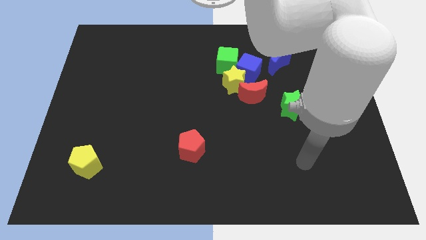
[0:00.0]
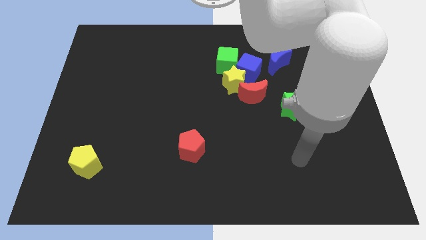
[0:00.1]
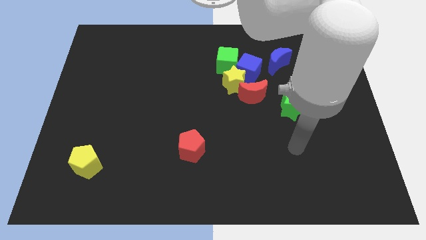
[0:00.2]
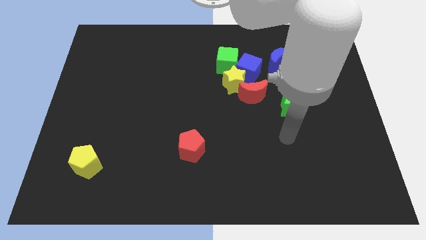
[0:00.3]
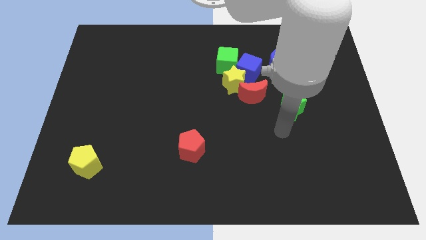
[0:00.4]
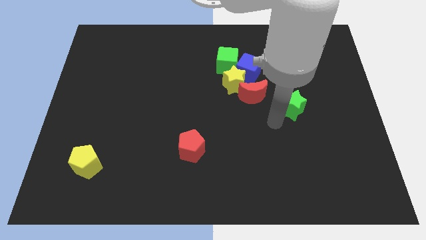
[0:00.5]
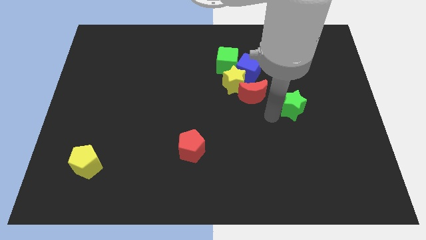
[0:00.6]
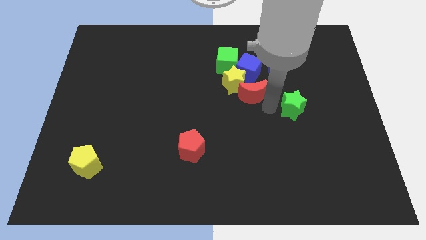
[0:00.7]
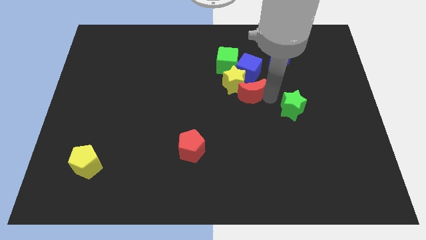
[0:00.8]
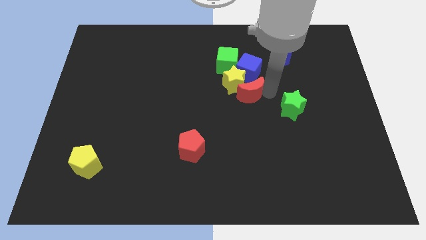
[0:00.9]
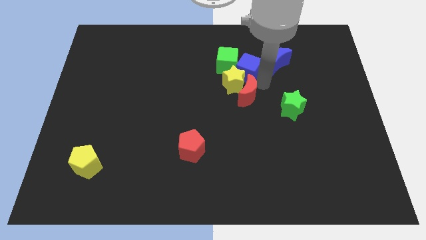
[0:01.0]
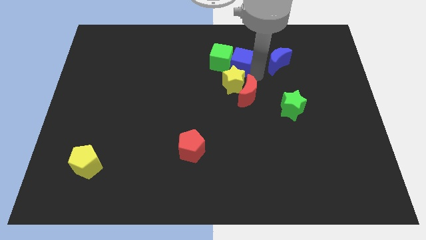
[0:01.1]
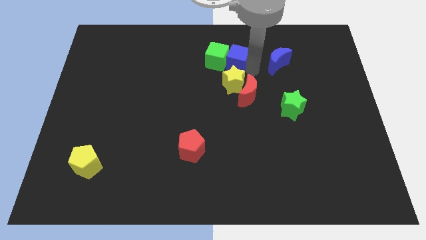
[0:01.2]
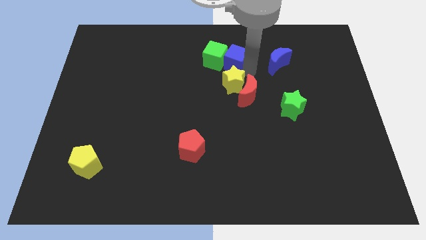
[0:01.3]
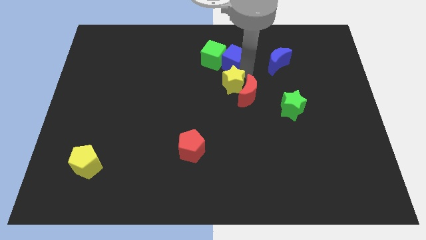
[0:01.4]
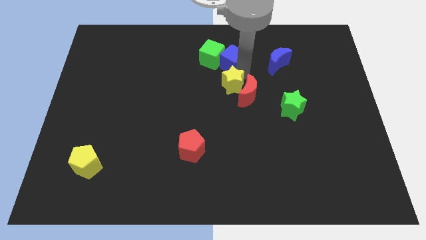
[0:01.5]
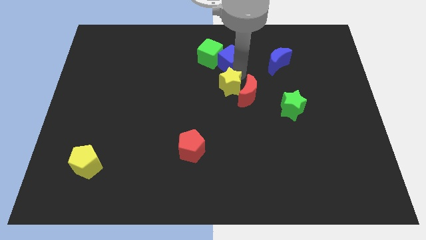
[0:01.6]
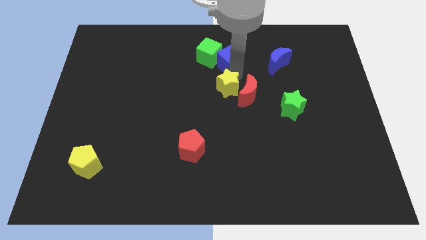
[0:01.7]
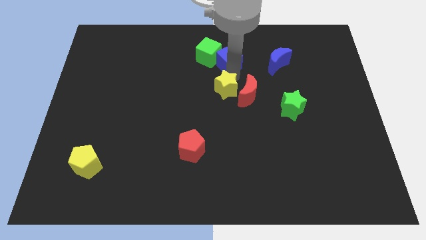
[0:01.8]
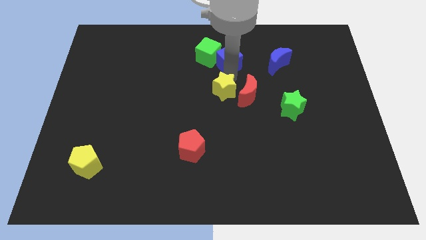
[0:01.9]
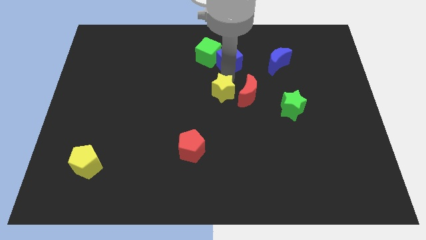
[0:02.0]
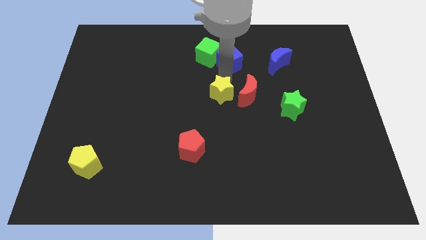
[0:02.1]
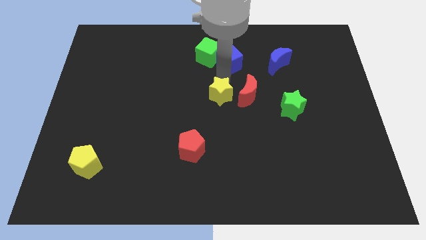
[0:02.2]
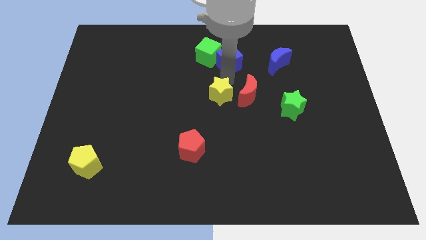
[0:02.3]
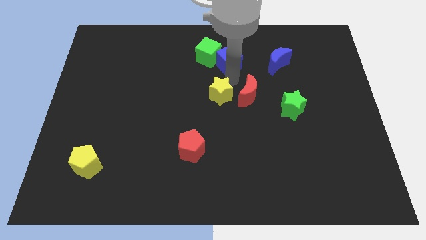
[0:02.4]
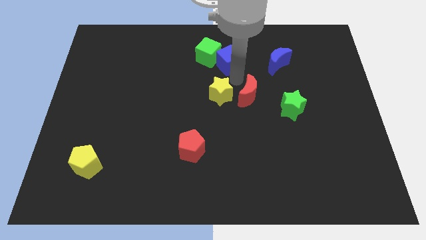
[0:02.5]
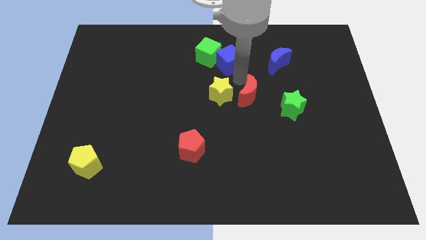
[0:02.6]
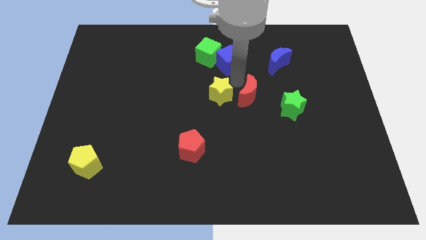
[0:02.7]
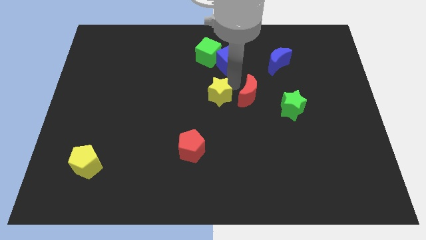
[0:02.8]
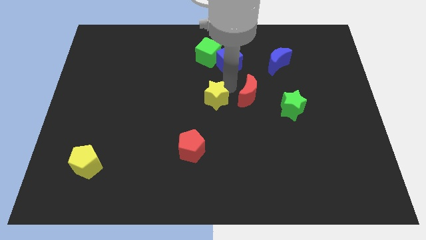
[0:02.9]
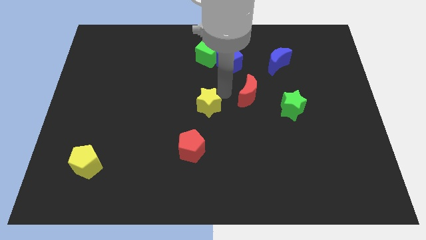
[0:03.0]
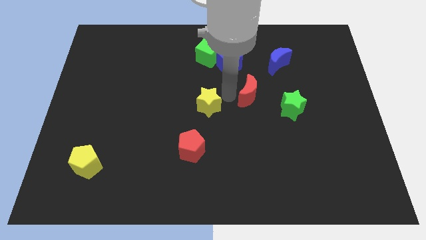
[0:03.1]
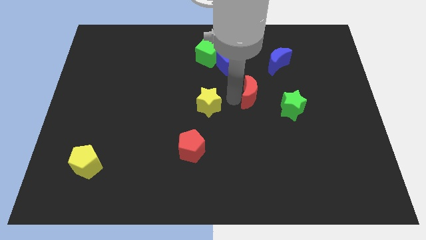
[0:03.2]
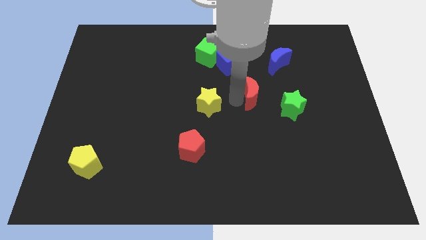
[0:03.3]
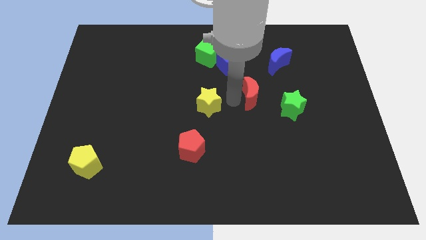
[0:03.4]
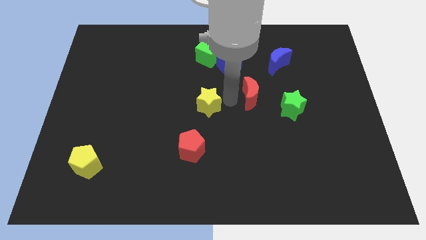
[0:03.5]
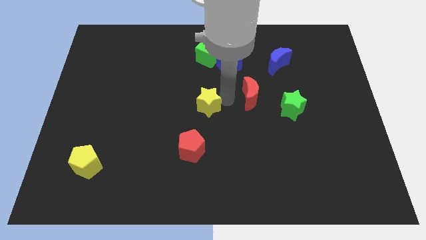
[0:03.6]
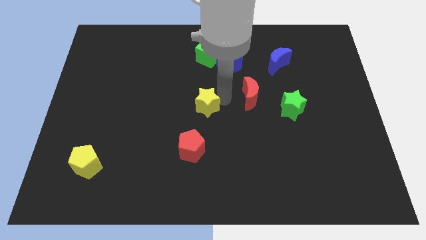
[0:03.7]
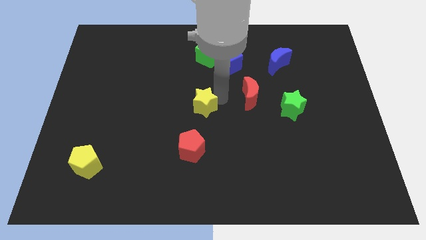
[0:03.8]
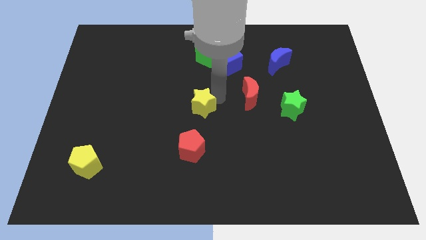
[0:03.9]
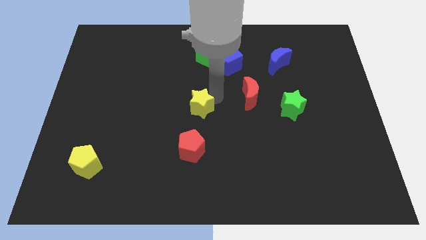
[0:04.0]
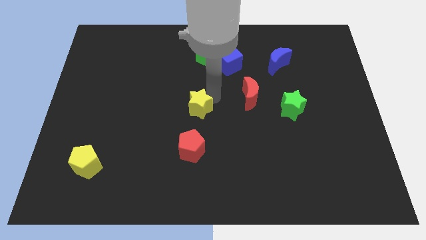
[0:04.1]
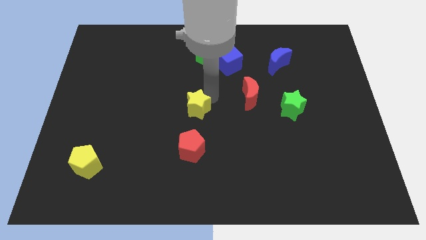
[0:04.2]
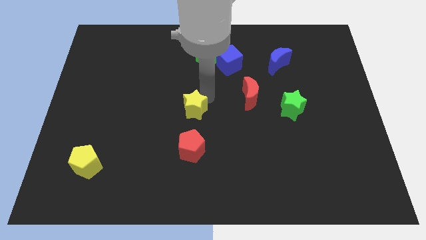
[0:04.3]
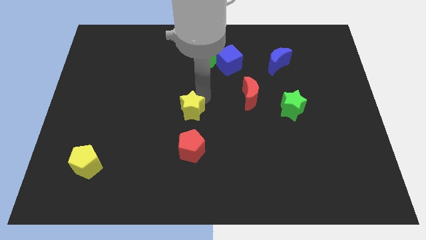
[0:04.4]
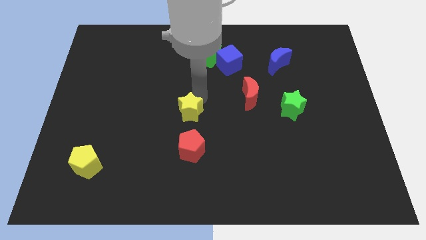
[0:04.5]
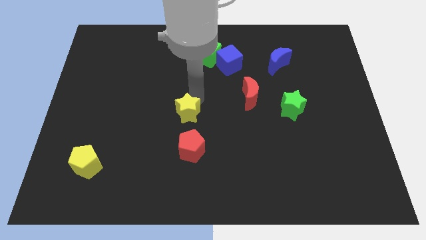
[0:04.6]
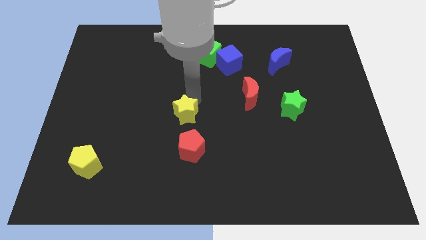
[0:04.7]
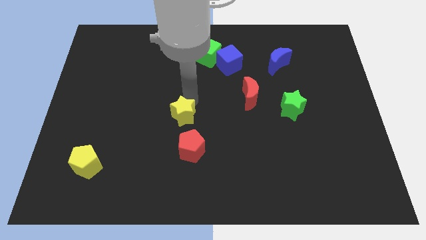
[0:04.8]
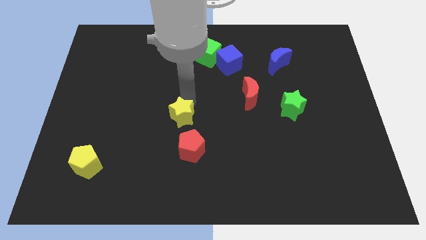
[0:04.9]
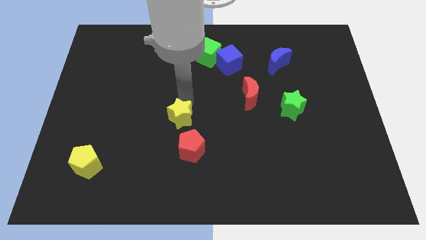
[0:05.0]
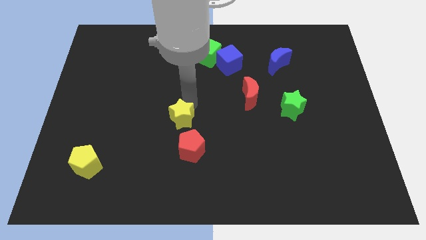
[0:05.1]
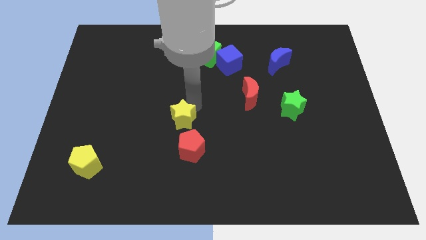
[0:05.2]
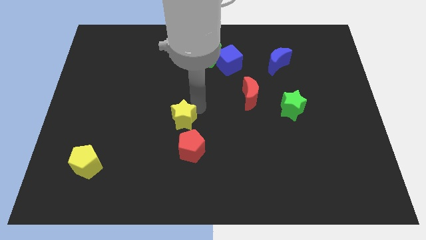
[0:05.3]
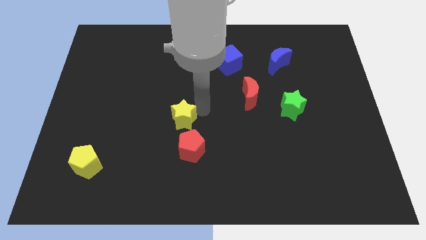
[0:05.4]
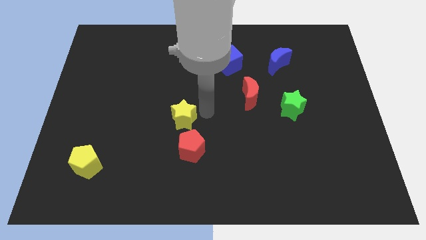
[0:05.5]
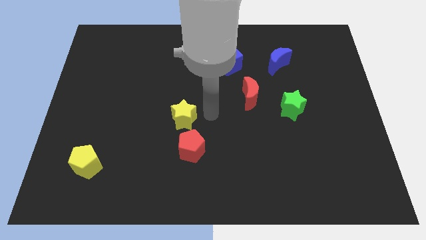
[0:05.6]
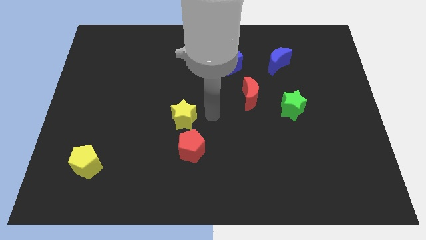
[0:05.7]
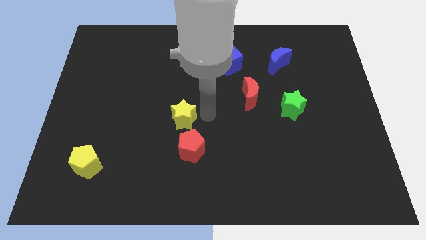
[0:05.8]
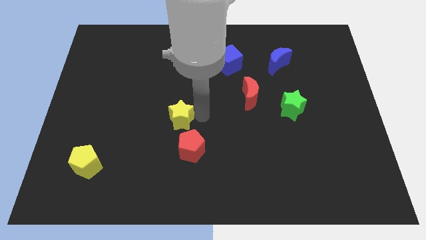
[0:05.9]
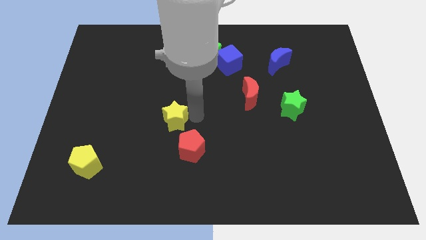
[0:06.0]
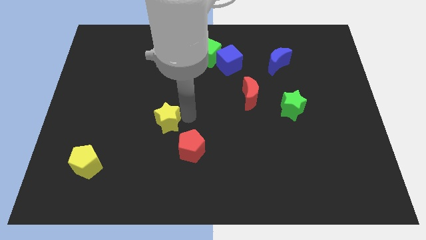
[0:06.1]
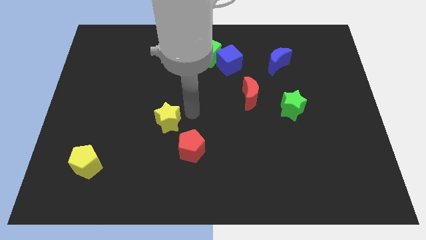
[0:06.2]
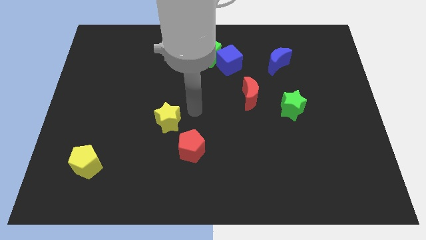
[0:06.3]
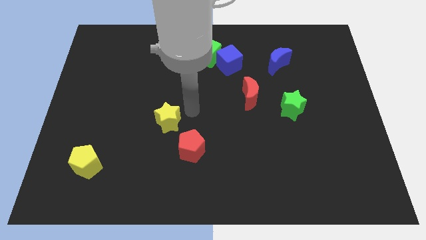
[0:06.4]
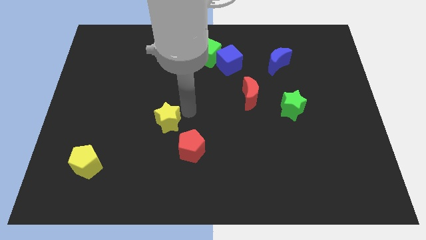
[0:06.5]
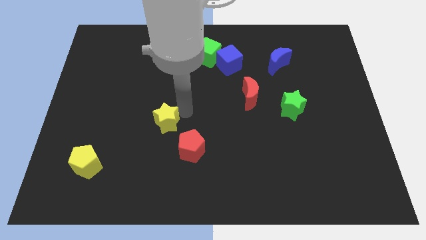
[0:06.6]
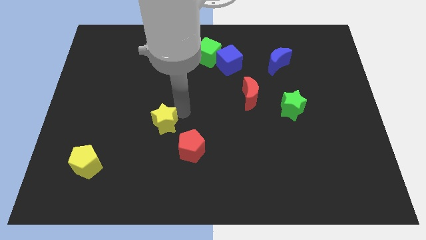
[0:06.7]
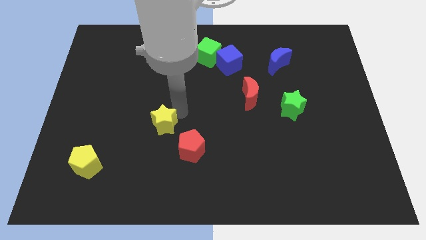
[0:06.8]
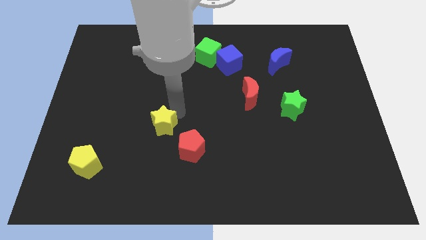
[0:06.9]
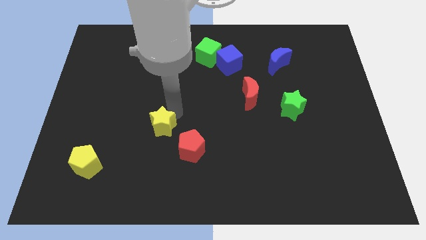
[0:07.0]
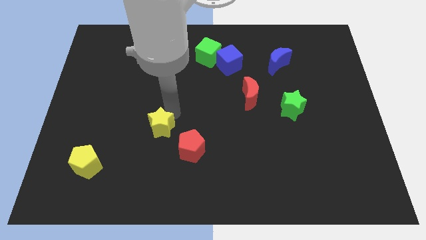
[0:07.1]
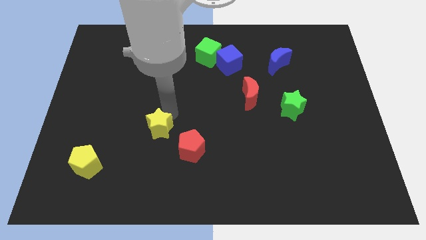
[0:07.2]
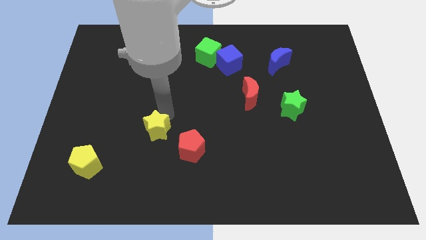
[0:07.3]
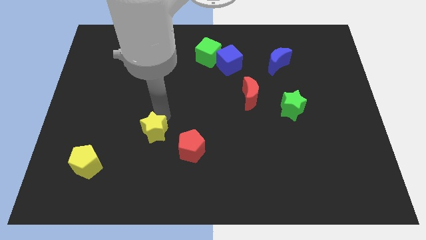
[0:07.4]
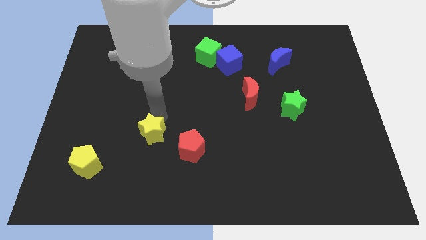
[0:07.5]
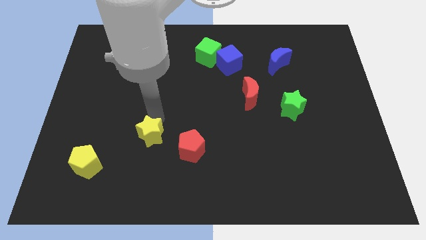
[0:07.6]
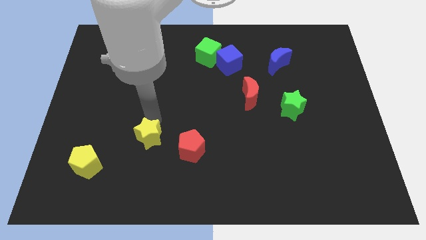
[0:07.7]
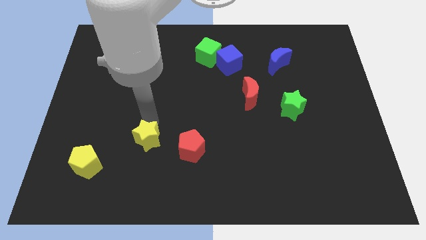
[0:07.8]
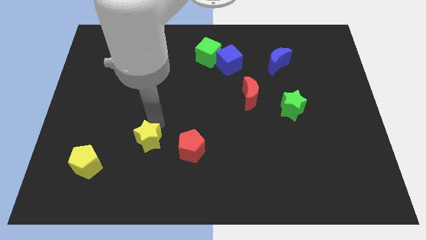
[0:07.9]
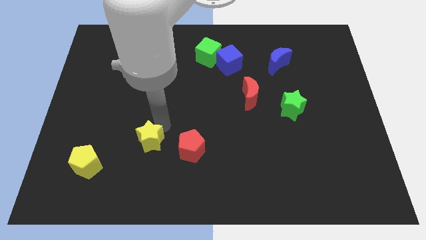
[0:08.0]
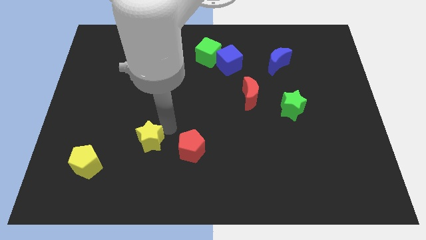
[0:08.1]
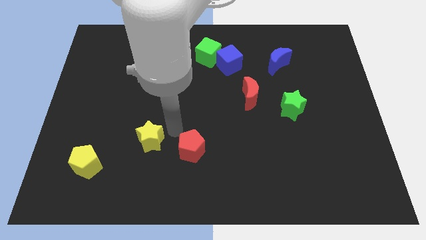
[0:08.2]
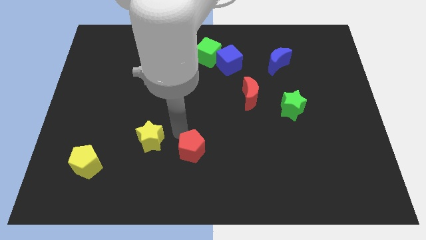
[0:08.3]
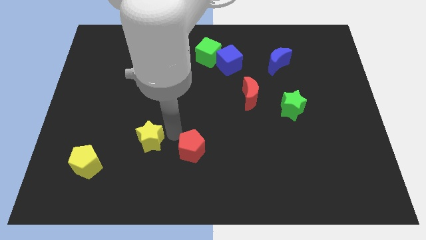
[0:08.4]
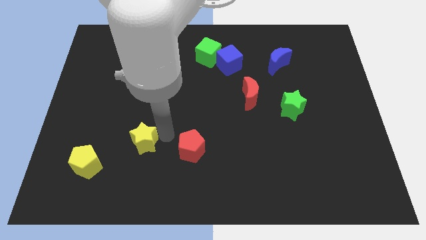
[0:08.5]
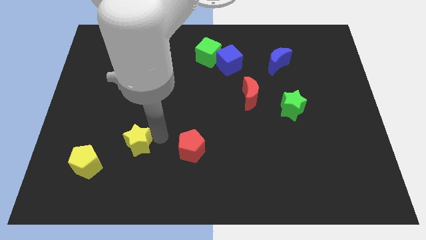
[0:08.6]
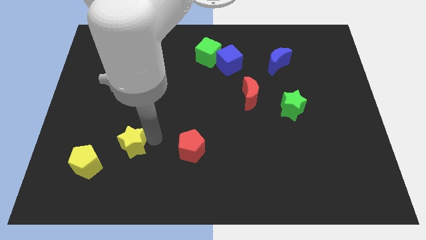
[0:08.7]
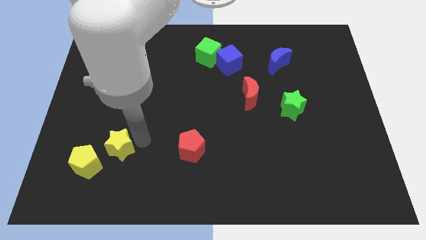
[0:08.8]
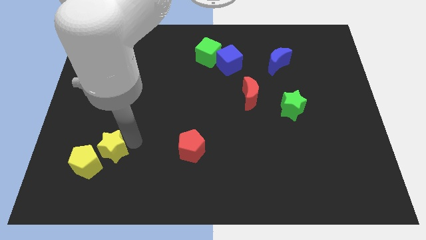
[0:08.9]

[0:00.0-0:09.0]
put the yellow star next to the yellow pentagon
